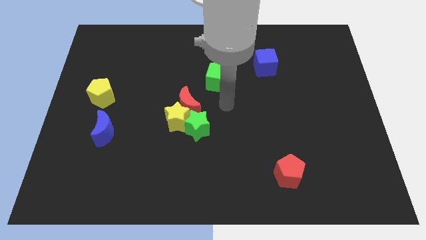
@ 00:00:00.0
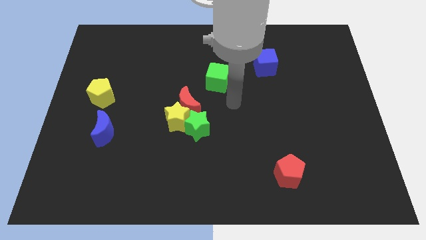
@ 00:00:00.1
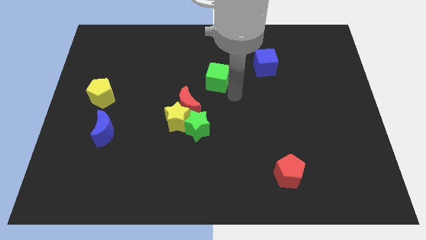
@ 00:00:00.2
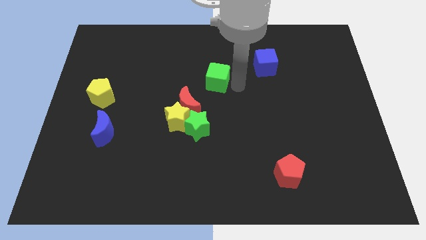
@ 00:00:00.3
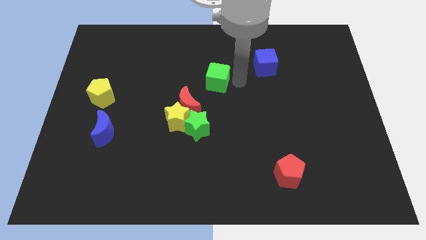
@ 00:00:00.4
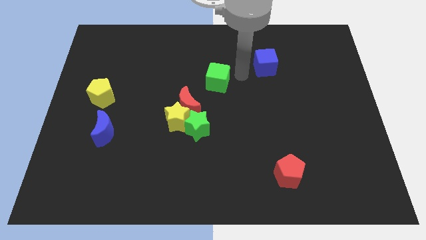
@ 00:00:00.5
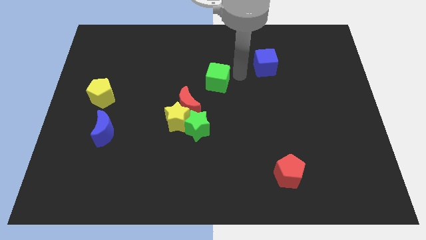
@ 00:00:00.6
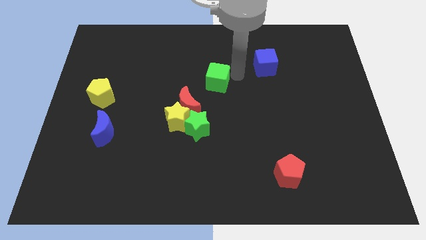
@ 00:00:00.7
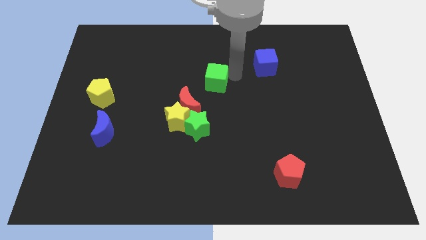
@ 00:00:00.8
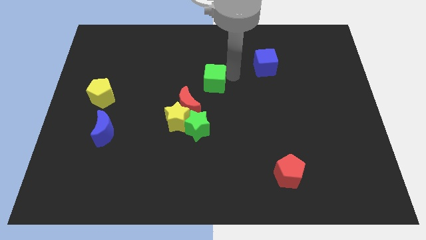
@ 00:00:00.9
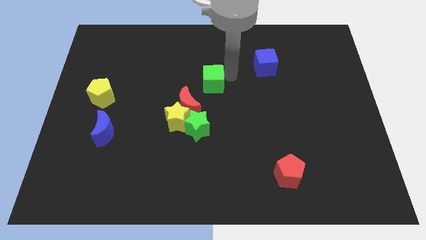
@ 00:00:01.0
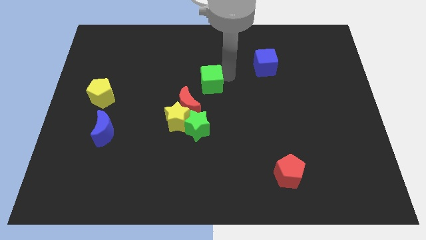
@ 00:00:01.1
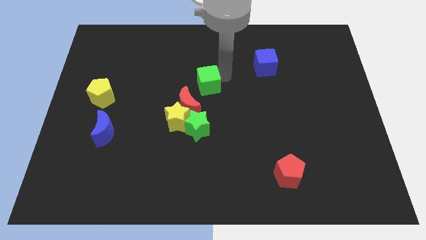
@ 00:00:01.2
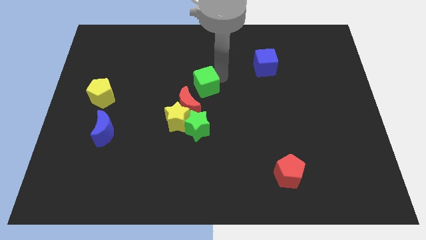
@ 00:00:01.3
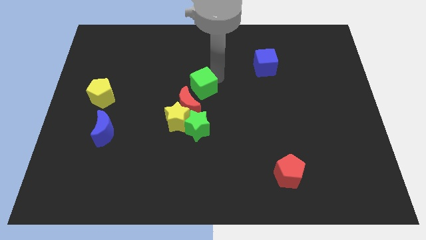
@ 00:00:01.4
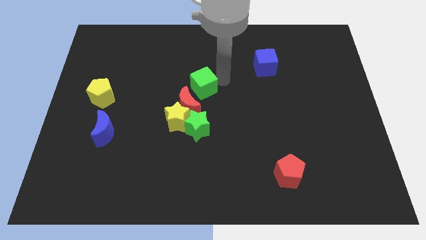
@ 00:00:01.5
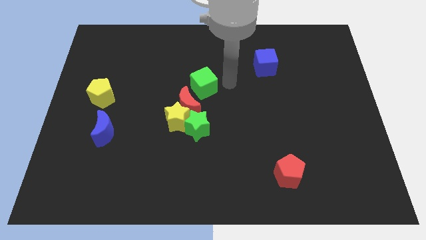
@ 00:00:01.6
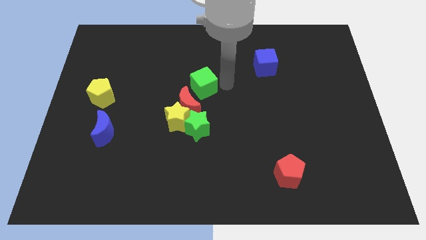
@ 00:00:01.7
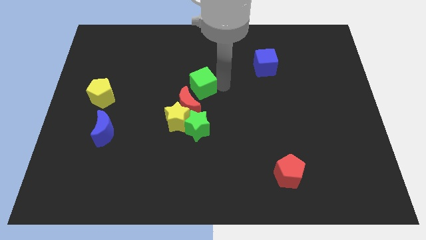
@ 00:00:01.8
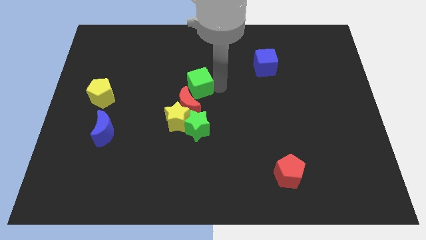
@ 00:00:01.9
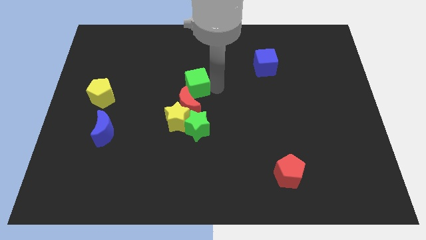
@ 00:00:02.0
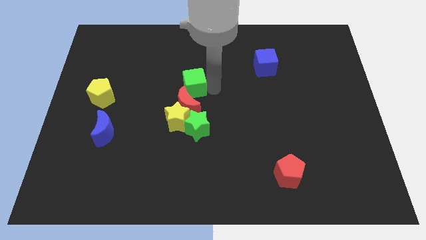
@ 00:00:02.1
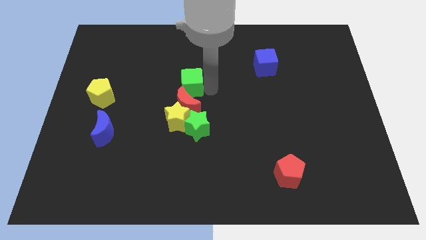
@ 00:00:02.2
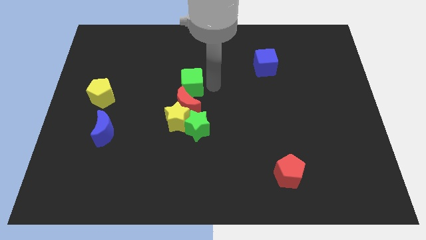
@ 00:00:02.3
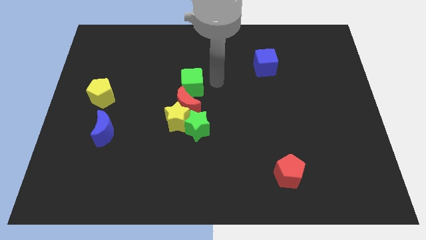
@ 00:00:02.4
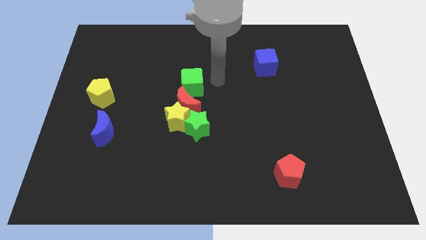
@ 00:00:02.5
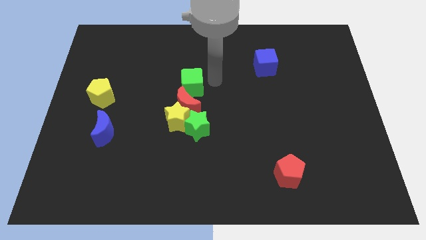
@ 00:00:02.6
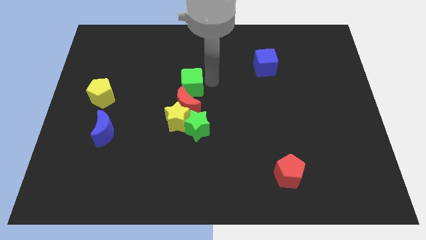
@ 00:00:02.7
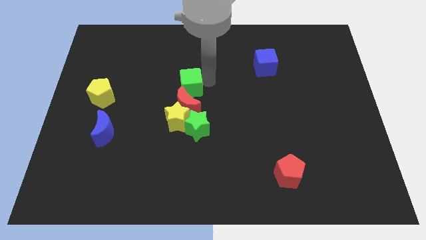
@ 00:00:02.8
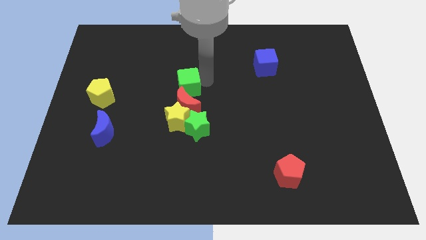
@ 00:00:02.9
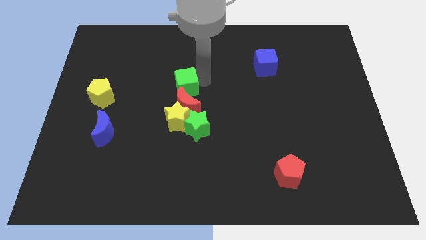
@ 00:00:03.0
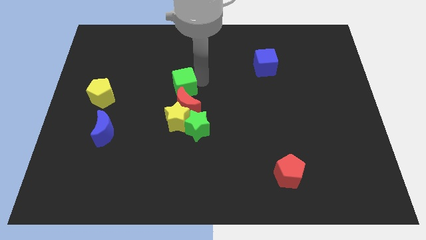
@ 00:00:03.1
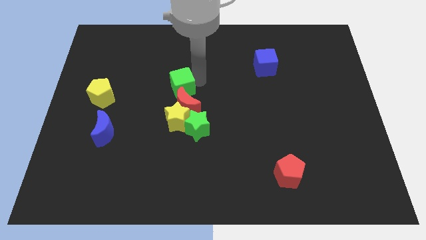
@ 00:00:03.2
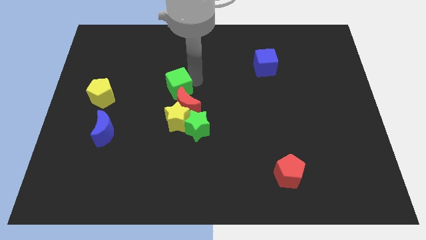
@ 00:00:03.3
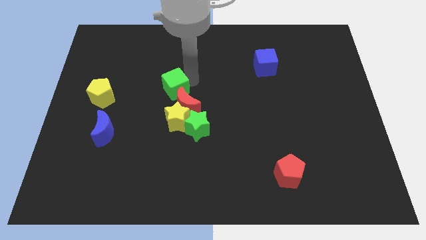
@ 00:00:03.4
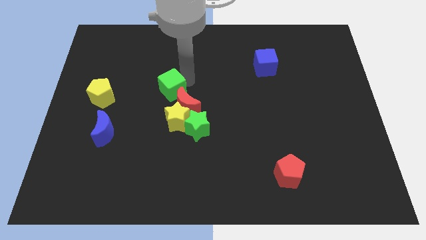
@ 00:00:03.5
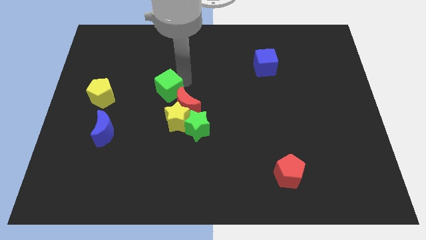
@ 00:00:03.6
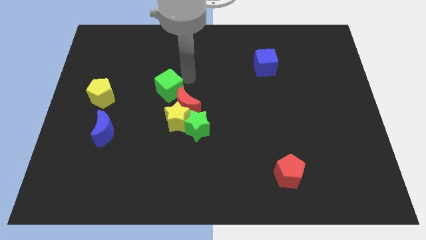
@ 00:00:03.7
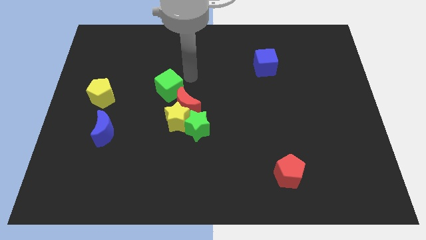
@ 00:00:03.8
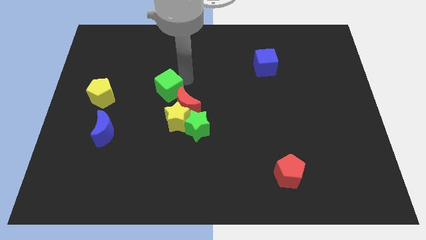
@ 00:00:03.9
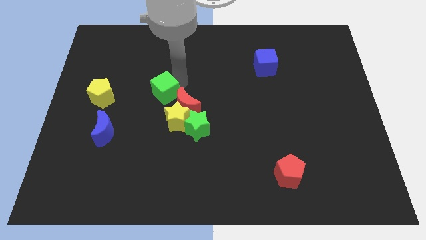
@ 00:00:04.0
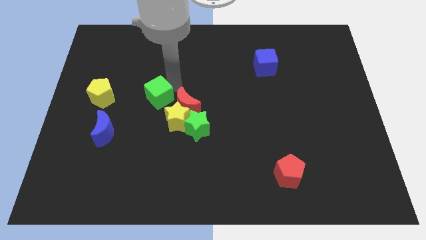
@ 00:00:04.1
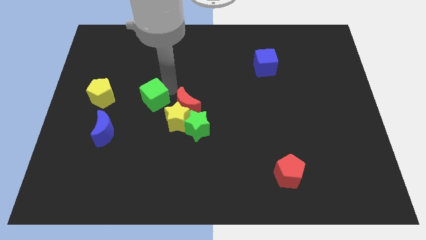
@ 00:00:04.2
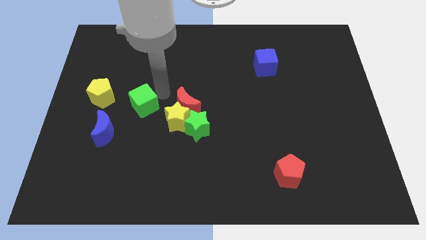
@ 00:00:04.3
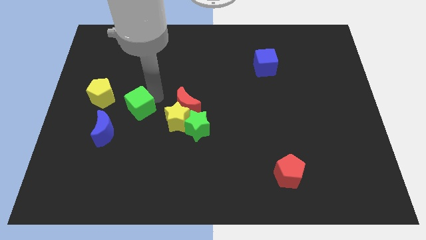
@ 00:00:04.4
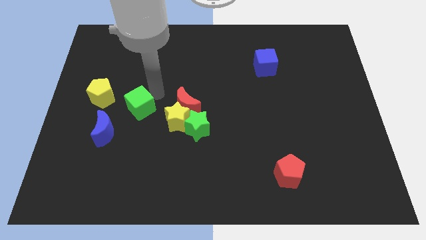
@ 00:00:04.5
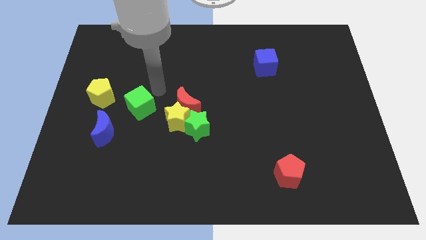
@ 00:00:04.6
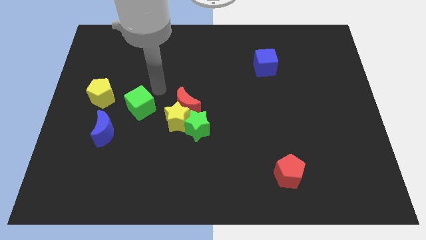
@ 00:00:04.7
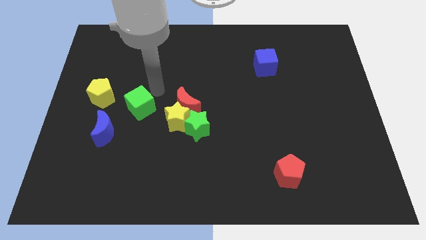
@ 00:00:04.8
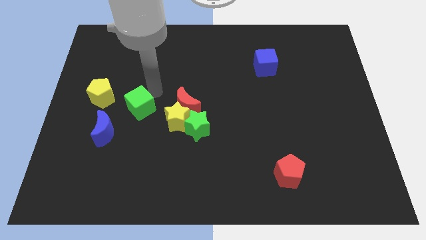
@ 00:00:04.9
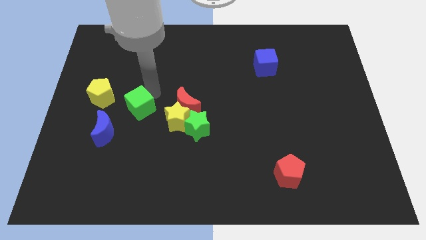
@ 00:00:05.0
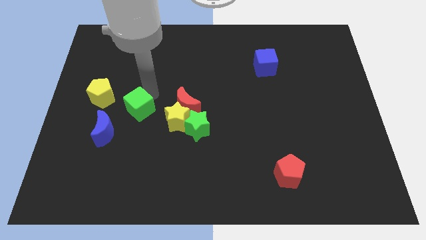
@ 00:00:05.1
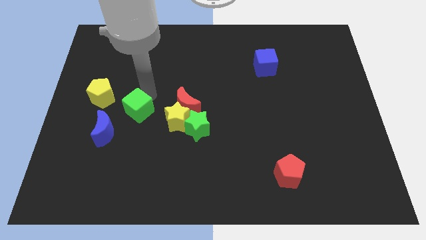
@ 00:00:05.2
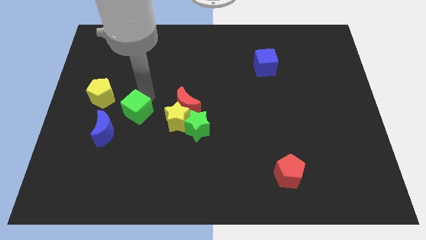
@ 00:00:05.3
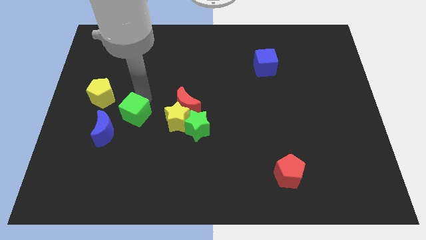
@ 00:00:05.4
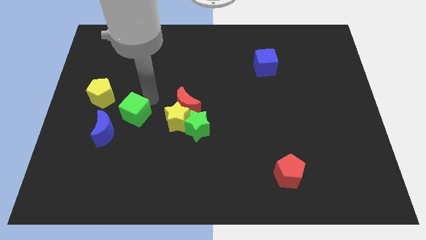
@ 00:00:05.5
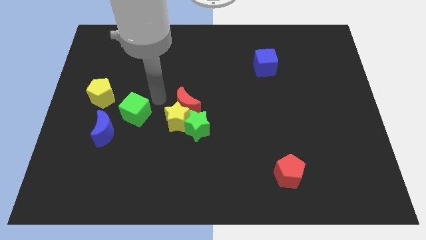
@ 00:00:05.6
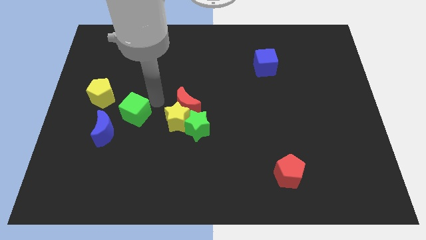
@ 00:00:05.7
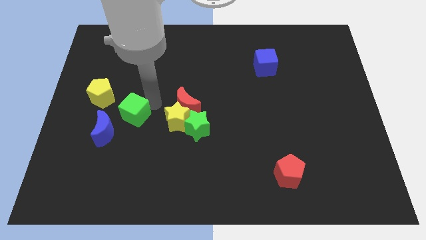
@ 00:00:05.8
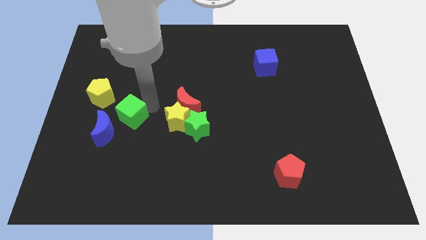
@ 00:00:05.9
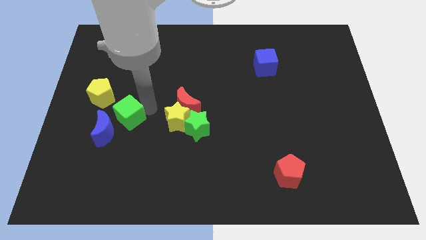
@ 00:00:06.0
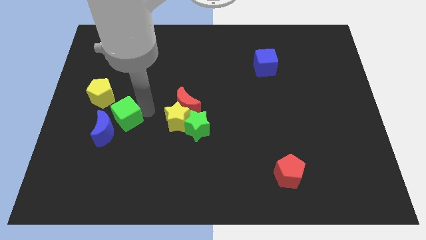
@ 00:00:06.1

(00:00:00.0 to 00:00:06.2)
slide the green cube towards the blue moon

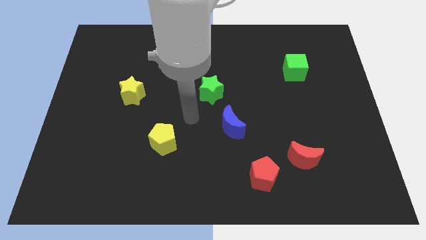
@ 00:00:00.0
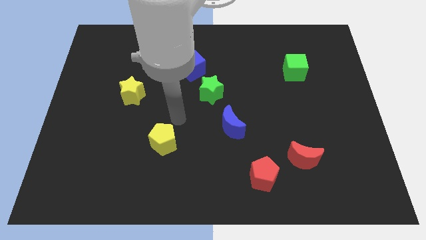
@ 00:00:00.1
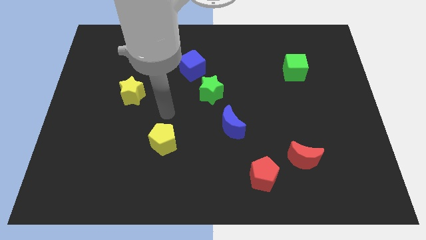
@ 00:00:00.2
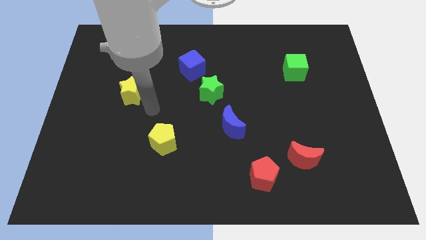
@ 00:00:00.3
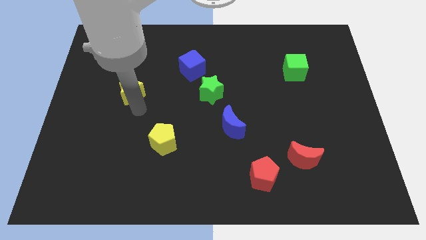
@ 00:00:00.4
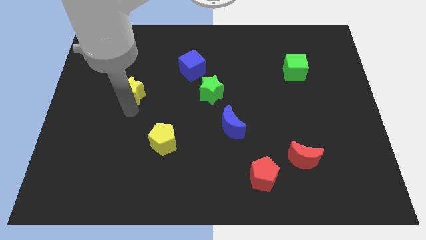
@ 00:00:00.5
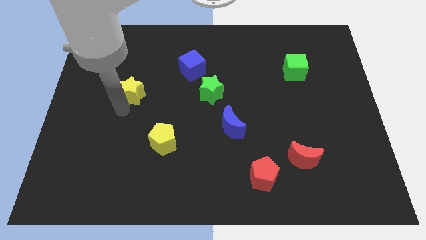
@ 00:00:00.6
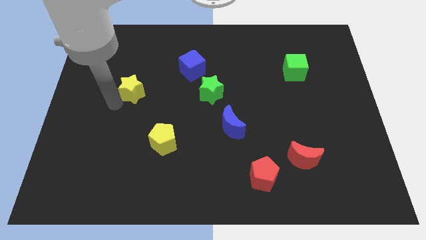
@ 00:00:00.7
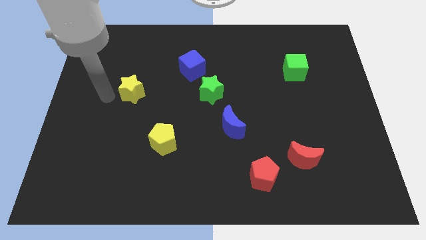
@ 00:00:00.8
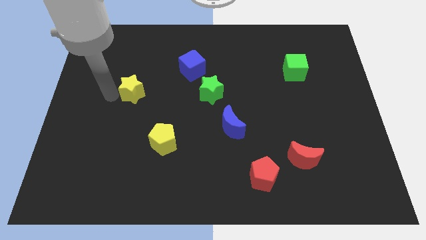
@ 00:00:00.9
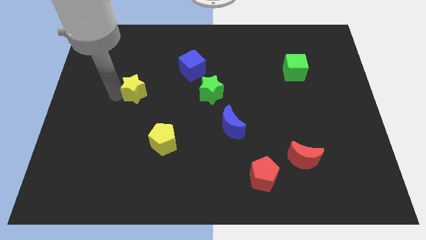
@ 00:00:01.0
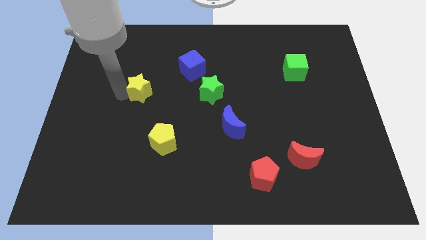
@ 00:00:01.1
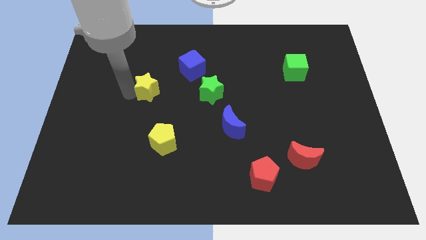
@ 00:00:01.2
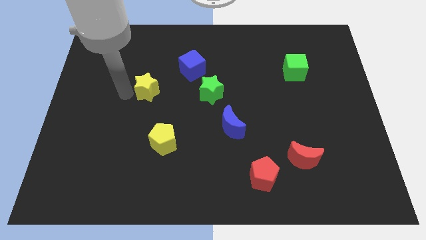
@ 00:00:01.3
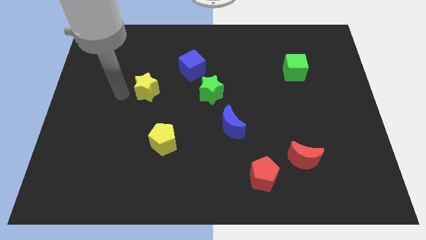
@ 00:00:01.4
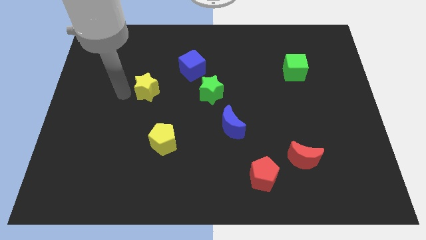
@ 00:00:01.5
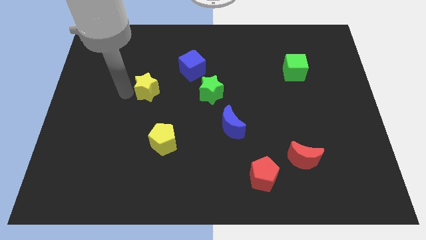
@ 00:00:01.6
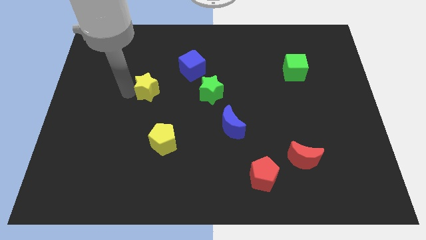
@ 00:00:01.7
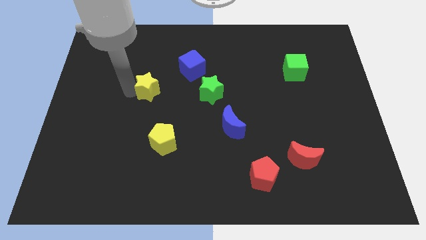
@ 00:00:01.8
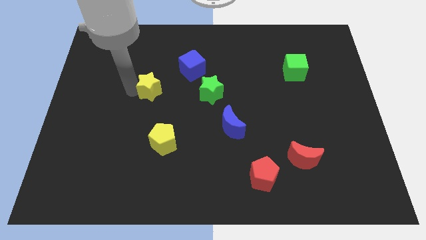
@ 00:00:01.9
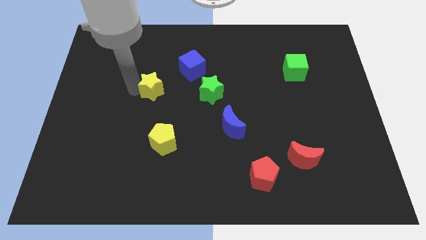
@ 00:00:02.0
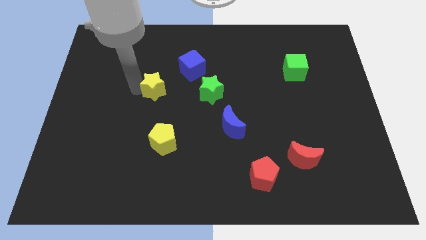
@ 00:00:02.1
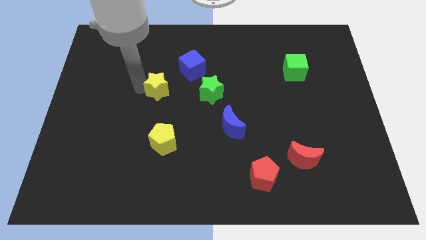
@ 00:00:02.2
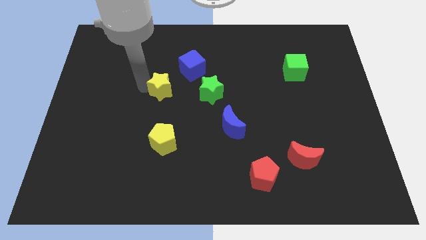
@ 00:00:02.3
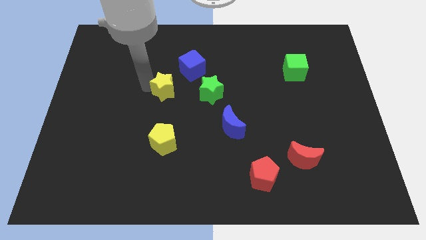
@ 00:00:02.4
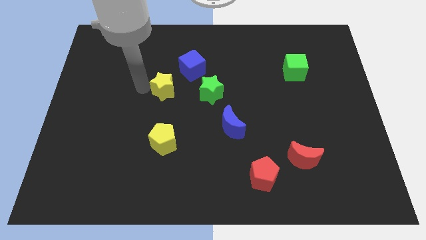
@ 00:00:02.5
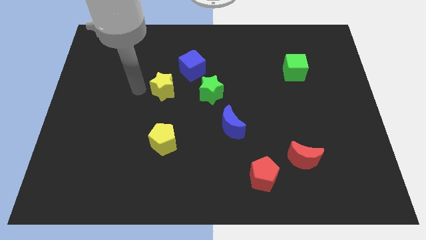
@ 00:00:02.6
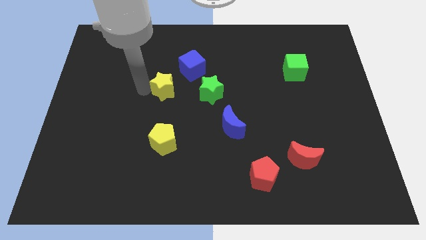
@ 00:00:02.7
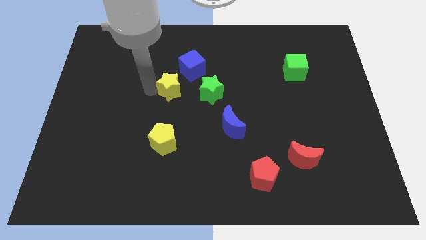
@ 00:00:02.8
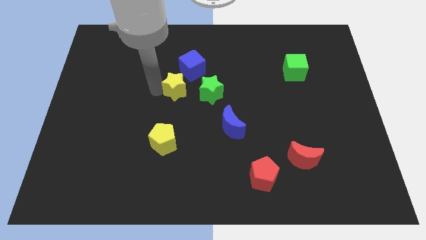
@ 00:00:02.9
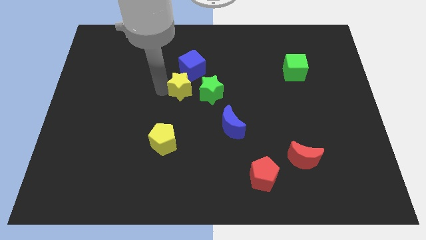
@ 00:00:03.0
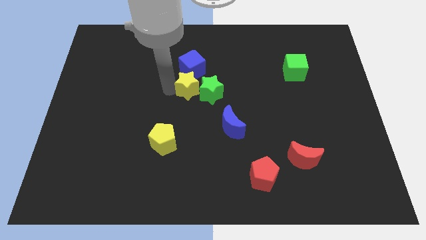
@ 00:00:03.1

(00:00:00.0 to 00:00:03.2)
slide the yellow star close to the green star
